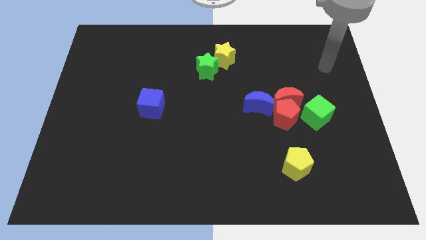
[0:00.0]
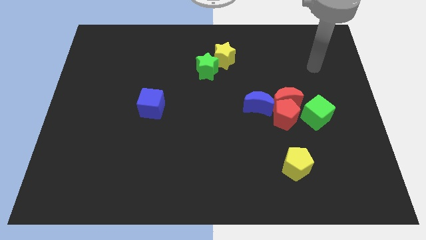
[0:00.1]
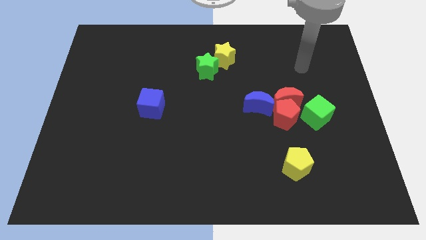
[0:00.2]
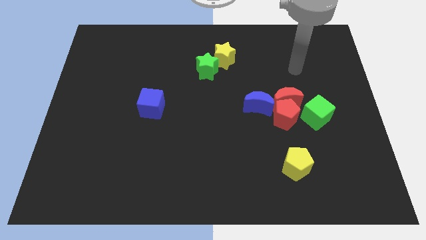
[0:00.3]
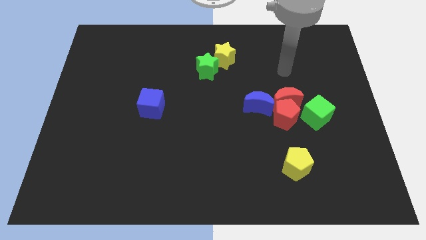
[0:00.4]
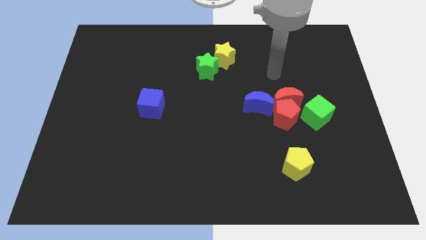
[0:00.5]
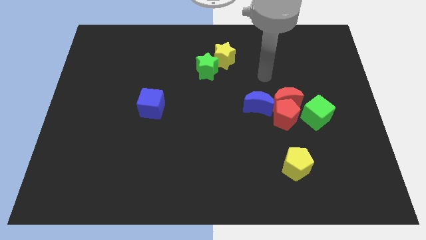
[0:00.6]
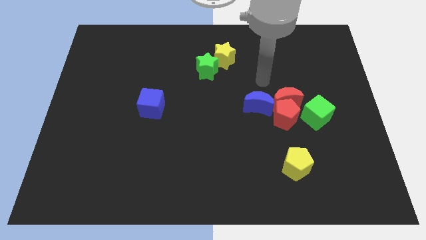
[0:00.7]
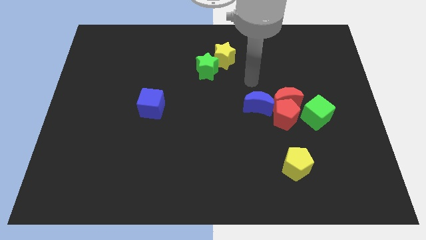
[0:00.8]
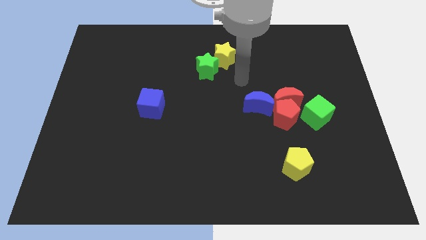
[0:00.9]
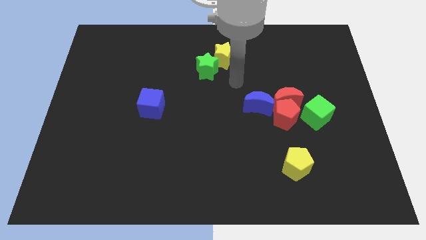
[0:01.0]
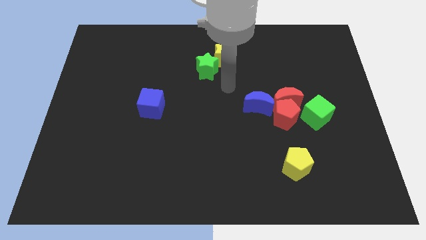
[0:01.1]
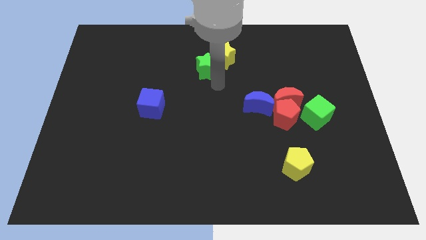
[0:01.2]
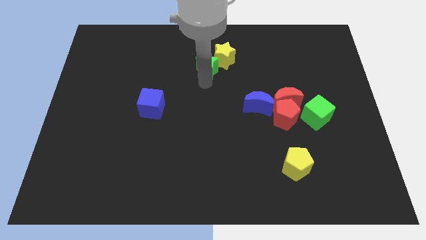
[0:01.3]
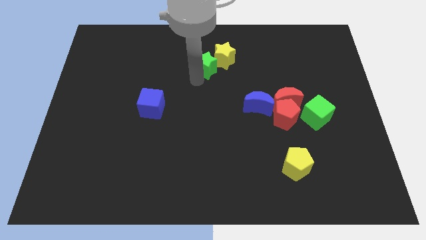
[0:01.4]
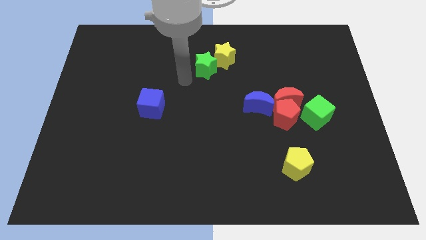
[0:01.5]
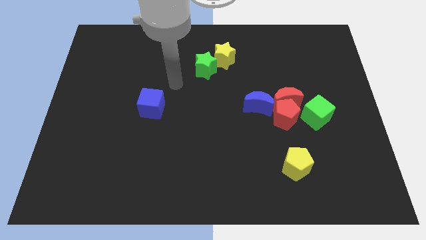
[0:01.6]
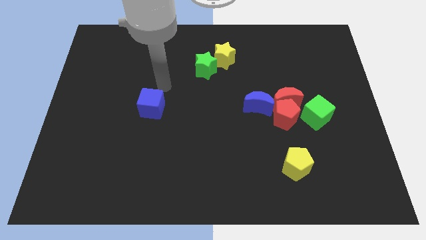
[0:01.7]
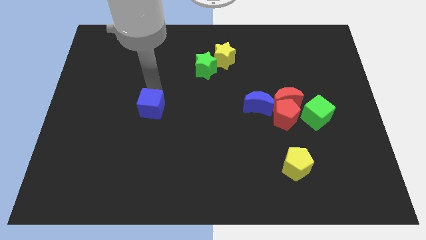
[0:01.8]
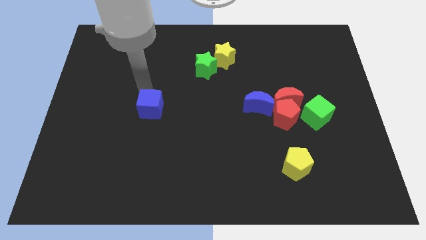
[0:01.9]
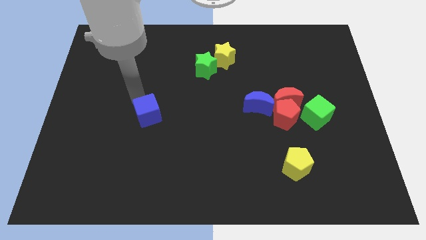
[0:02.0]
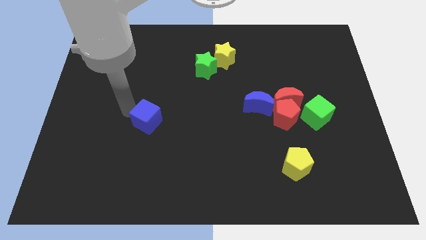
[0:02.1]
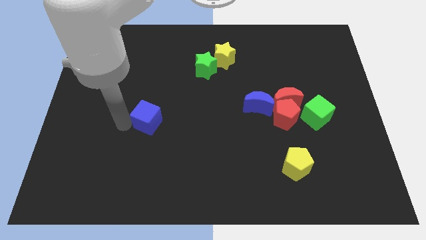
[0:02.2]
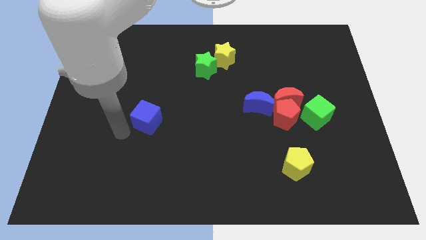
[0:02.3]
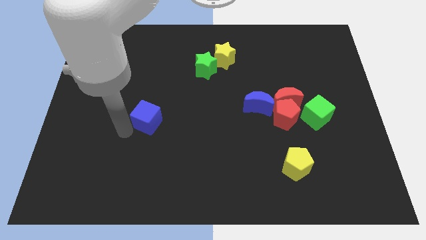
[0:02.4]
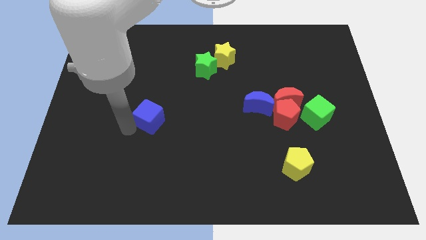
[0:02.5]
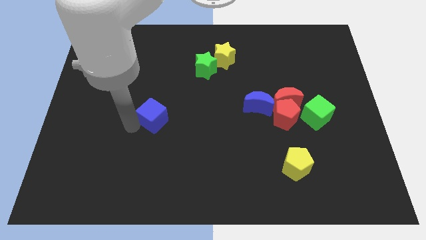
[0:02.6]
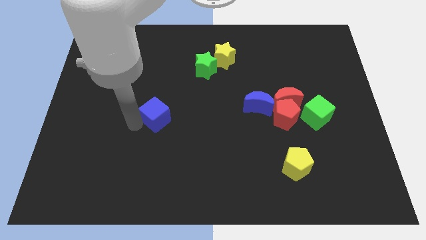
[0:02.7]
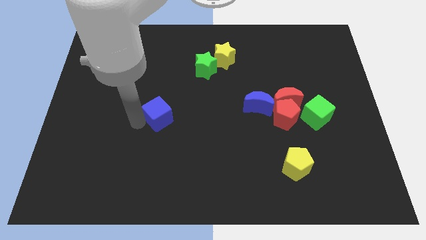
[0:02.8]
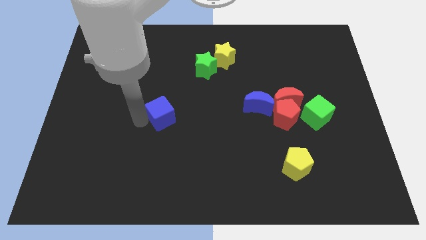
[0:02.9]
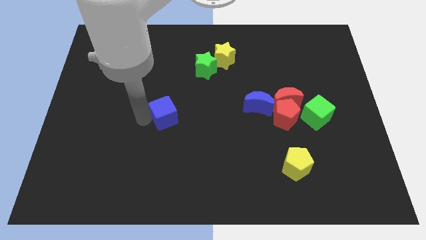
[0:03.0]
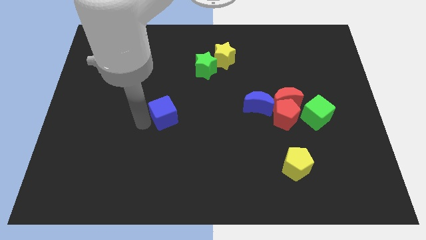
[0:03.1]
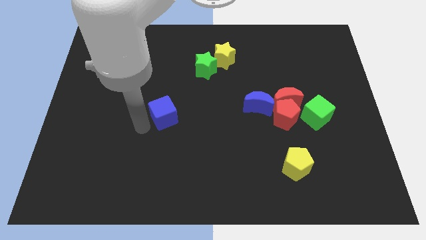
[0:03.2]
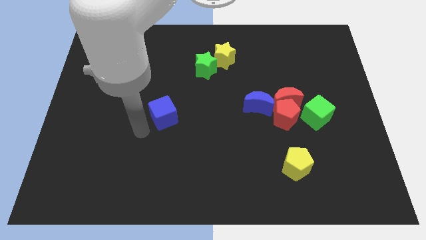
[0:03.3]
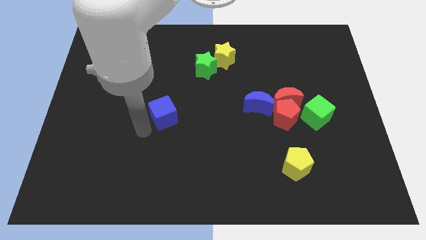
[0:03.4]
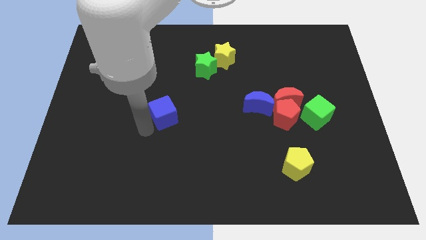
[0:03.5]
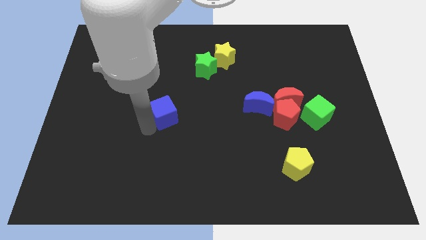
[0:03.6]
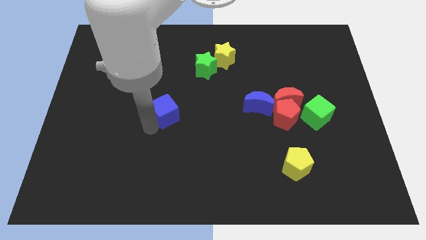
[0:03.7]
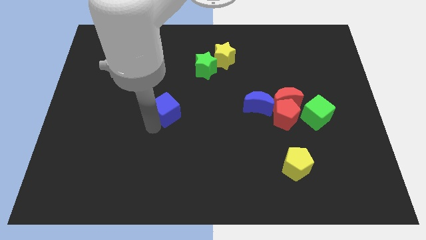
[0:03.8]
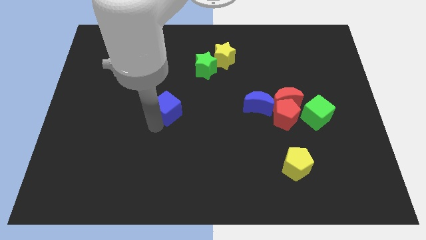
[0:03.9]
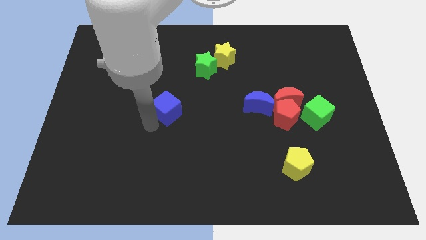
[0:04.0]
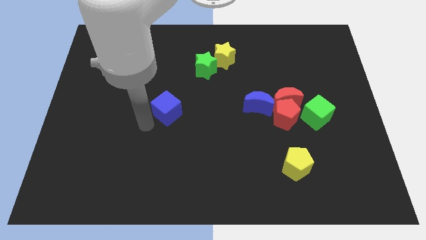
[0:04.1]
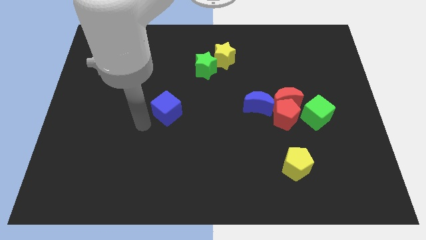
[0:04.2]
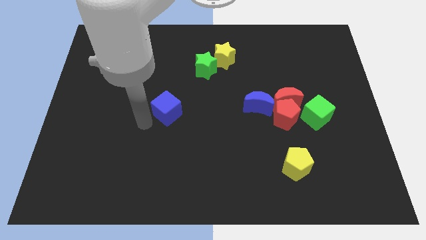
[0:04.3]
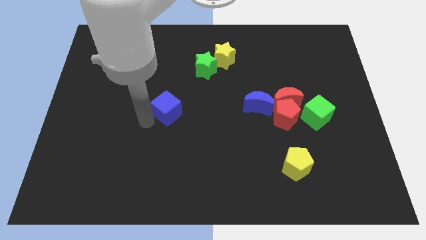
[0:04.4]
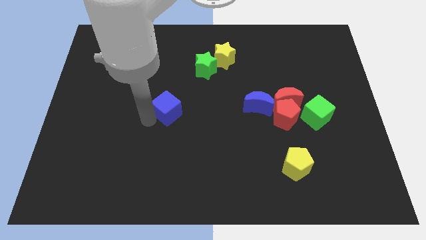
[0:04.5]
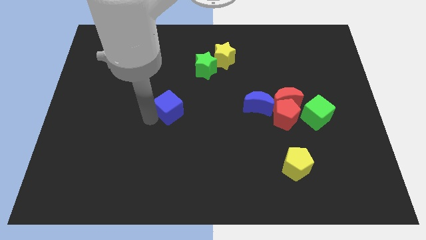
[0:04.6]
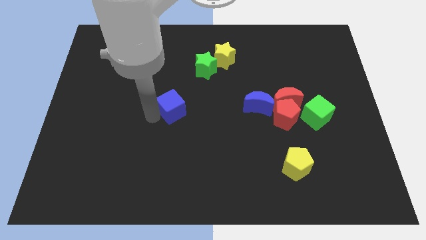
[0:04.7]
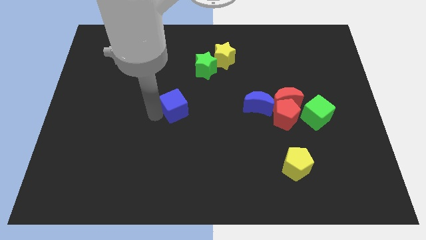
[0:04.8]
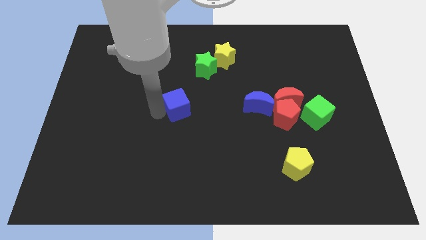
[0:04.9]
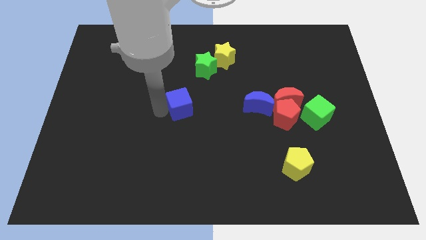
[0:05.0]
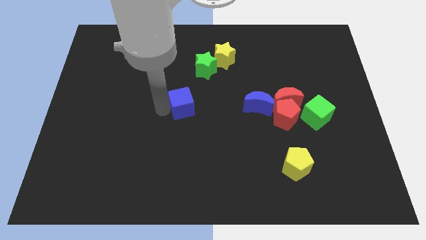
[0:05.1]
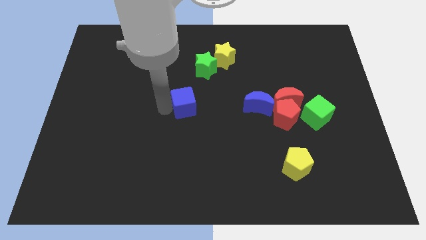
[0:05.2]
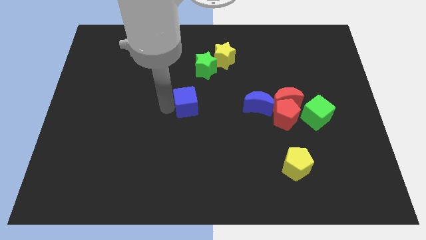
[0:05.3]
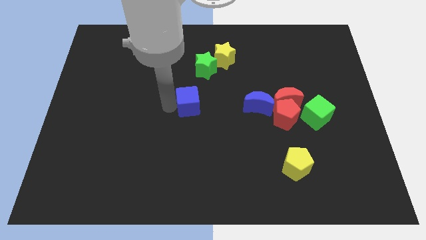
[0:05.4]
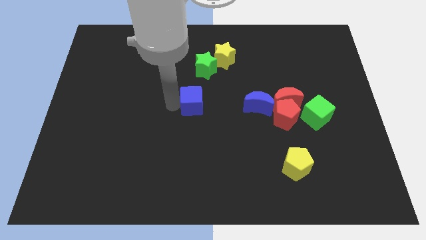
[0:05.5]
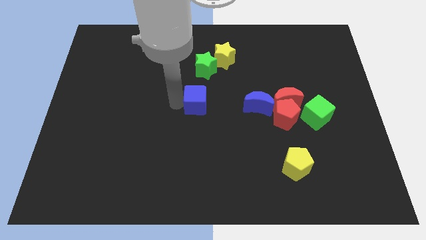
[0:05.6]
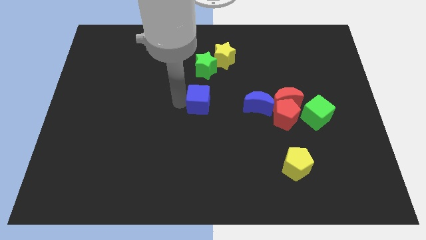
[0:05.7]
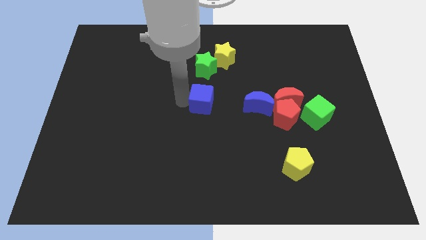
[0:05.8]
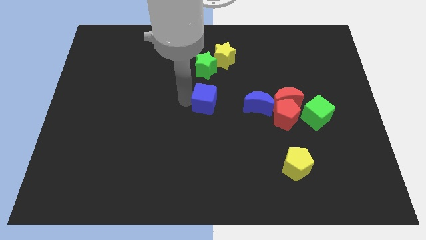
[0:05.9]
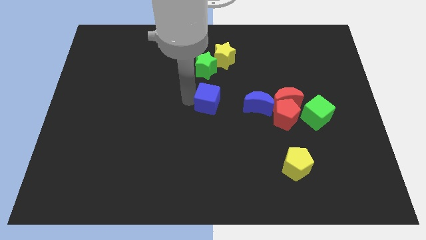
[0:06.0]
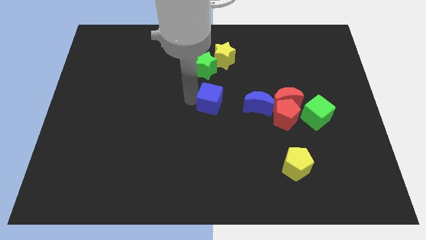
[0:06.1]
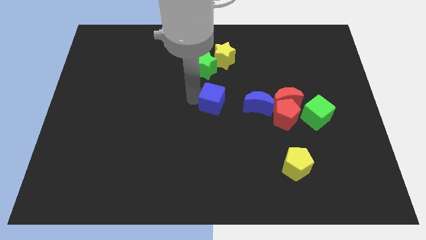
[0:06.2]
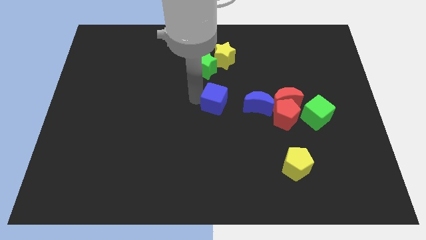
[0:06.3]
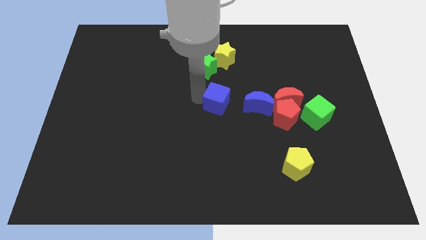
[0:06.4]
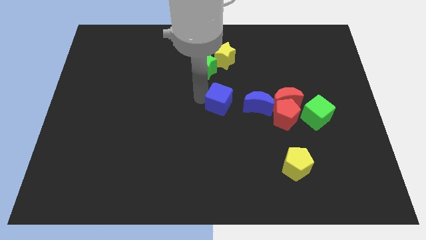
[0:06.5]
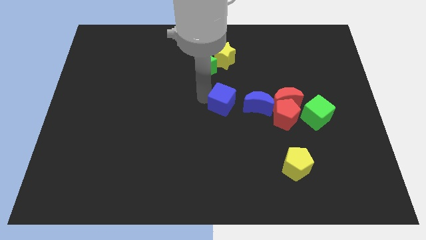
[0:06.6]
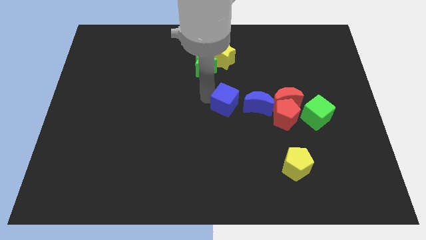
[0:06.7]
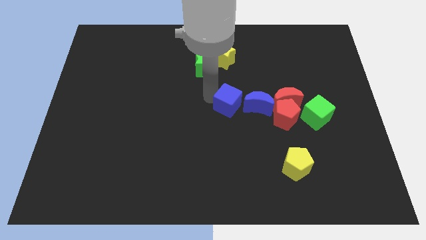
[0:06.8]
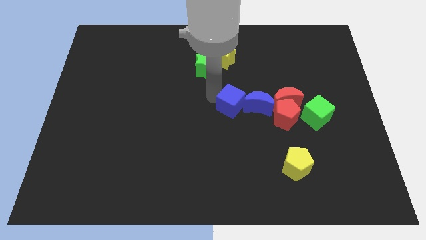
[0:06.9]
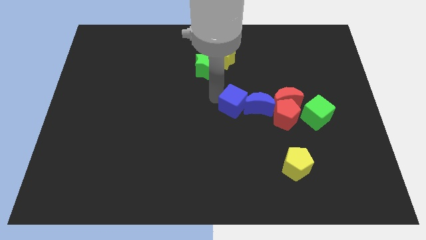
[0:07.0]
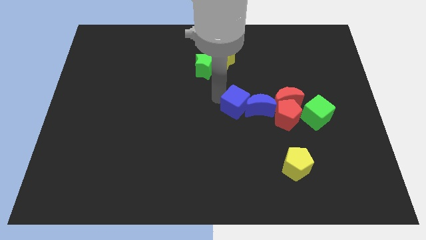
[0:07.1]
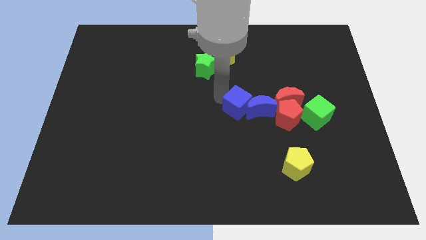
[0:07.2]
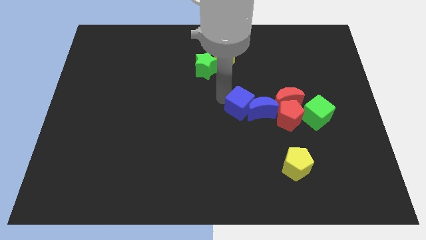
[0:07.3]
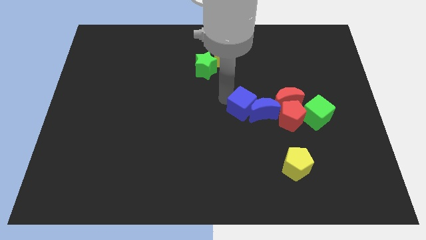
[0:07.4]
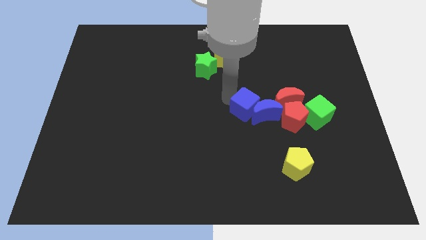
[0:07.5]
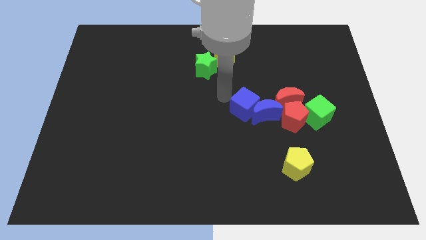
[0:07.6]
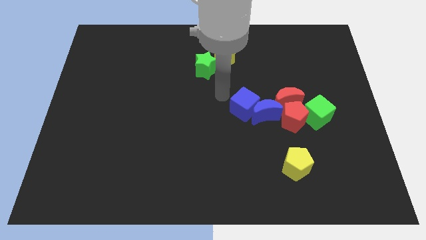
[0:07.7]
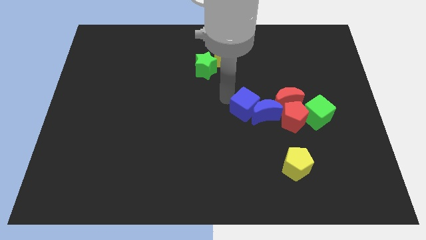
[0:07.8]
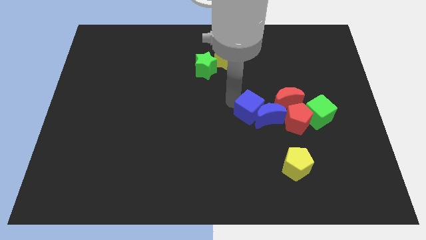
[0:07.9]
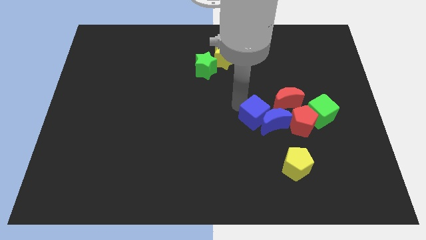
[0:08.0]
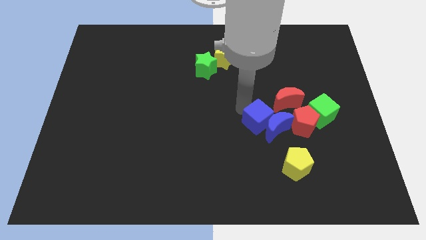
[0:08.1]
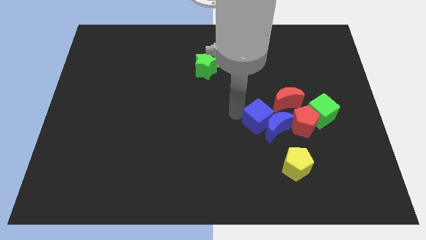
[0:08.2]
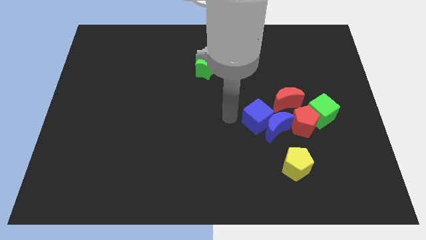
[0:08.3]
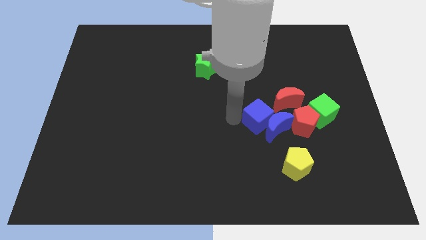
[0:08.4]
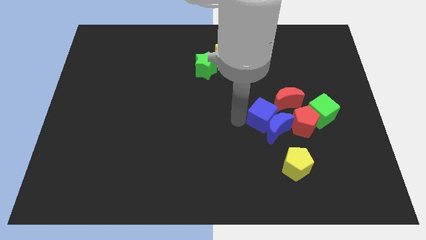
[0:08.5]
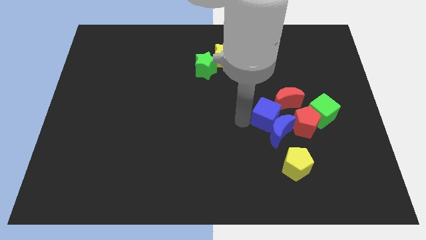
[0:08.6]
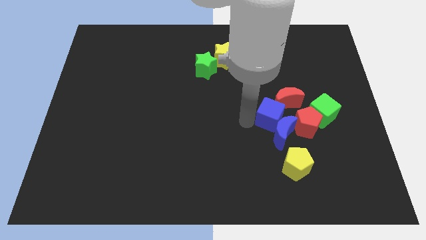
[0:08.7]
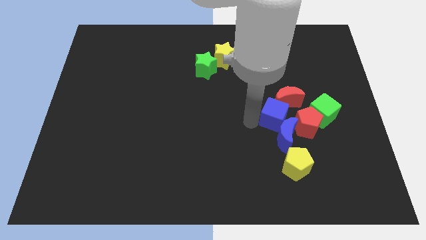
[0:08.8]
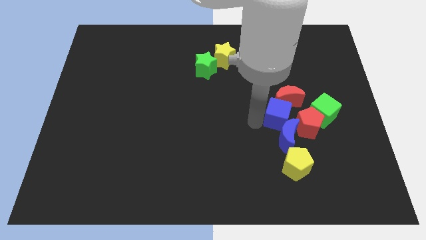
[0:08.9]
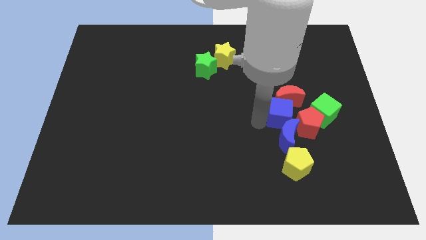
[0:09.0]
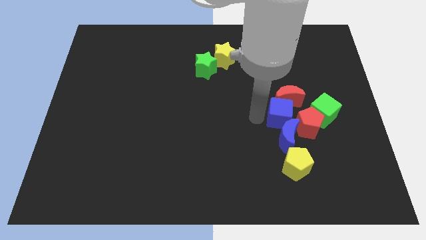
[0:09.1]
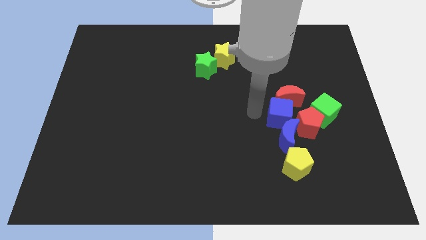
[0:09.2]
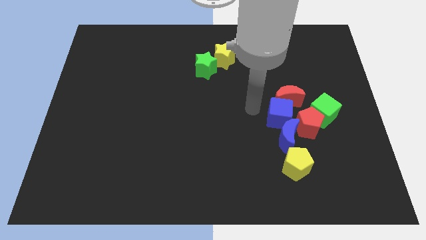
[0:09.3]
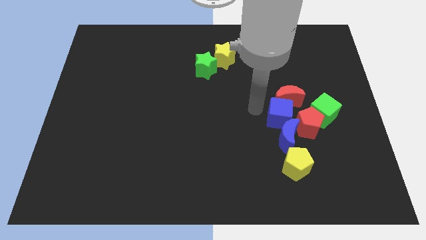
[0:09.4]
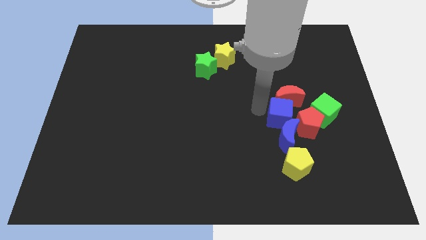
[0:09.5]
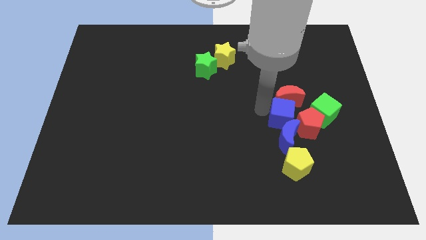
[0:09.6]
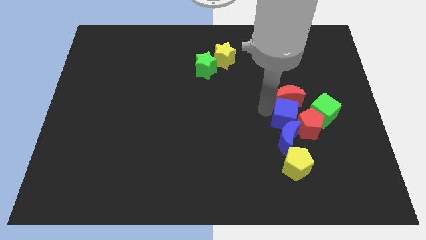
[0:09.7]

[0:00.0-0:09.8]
move the blue cube towards the red pentagon
